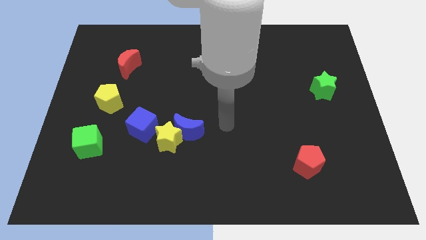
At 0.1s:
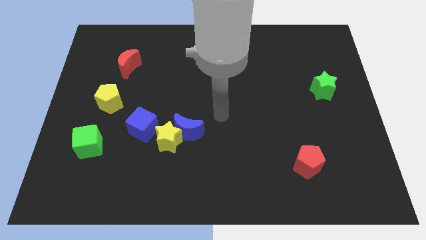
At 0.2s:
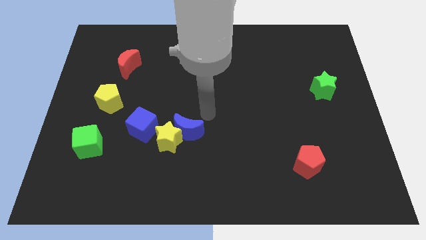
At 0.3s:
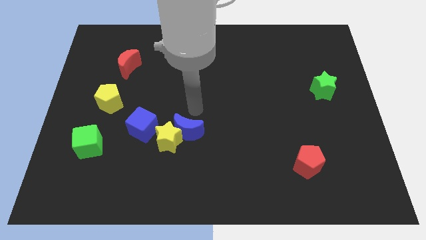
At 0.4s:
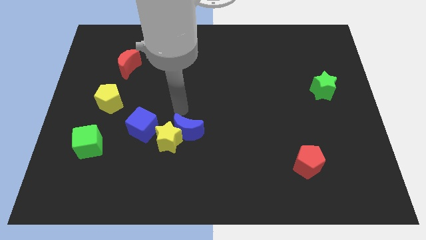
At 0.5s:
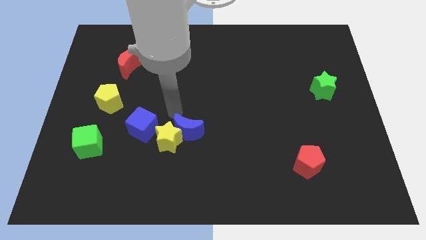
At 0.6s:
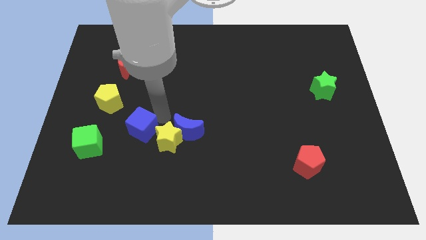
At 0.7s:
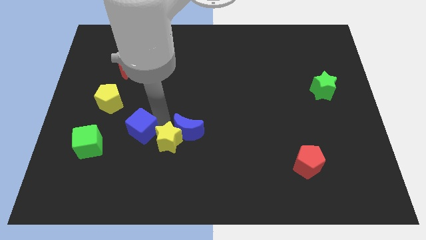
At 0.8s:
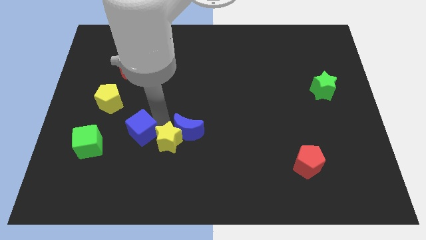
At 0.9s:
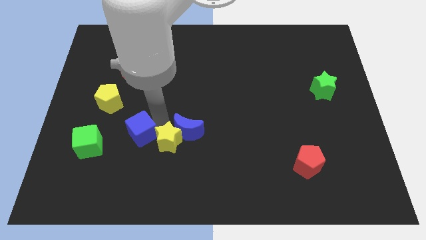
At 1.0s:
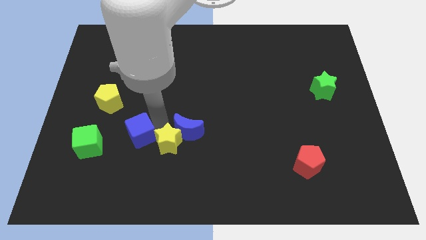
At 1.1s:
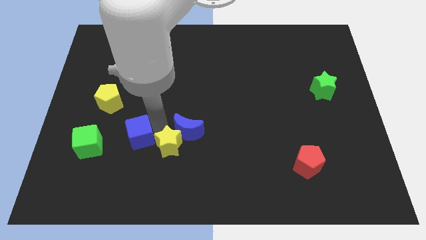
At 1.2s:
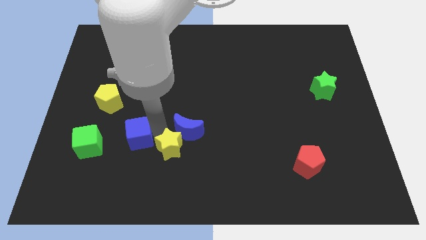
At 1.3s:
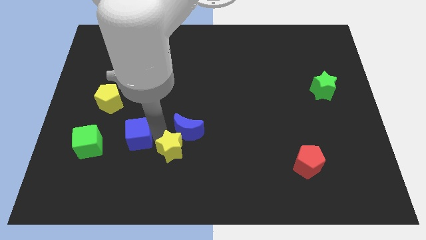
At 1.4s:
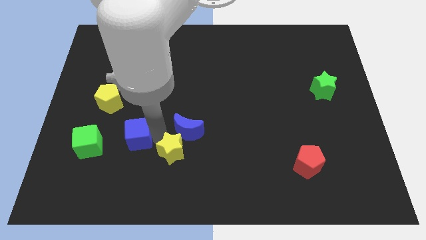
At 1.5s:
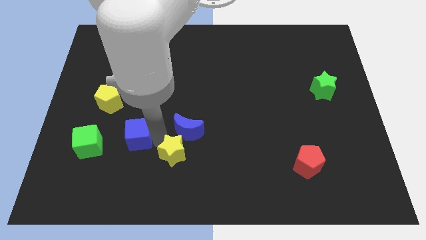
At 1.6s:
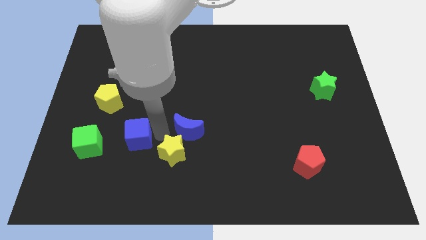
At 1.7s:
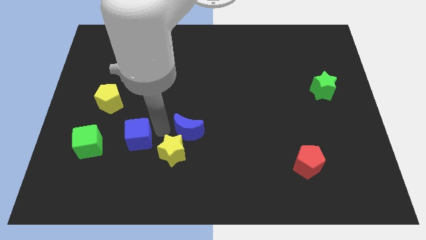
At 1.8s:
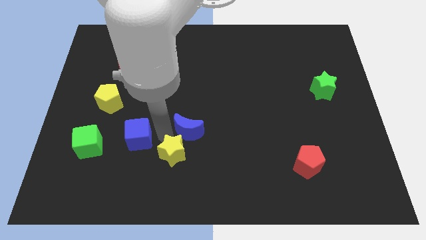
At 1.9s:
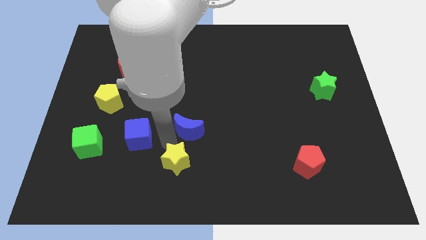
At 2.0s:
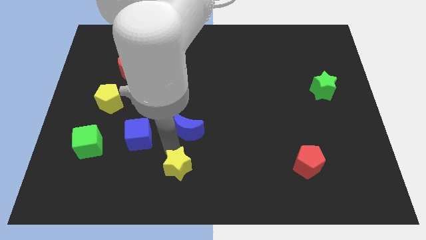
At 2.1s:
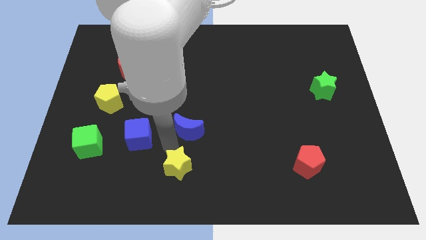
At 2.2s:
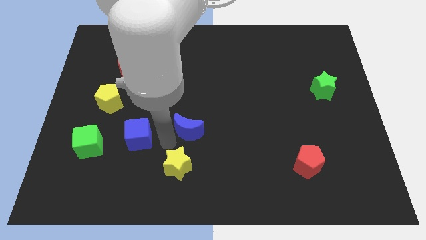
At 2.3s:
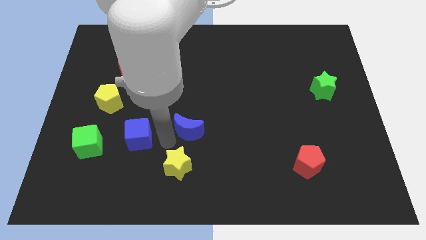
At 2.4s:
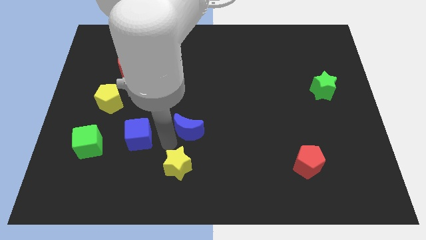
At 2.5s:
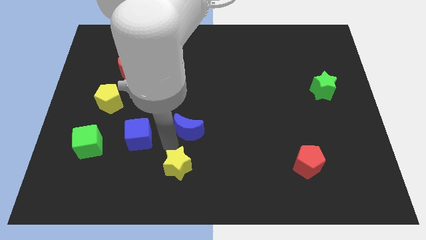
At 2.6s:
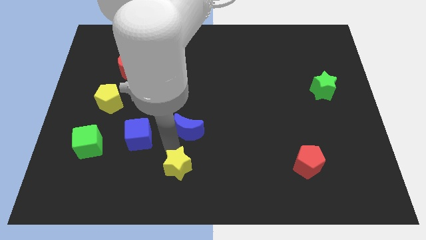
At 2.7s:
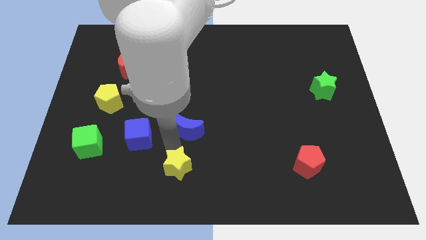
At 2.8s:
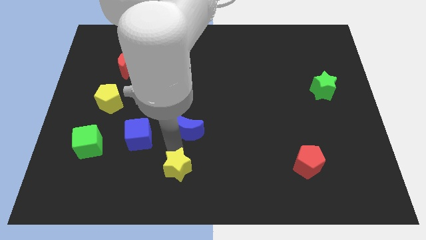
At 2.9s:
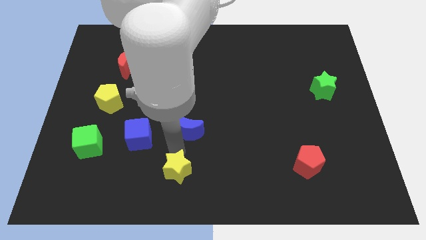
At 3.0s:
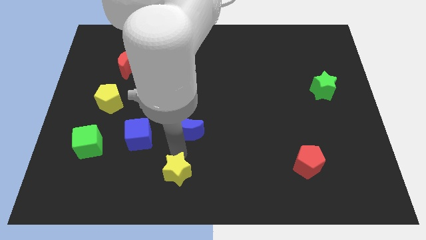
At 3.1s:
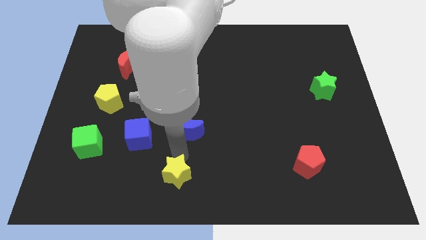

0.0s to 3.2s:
pull the yellow star apart from the blue moon and blue cube

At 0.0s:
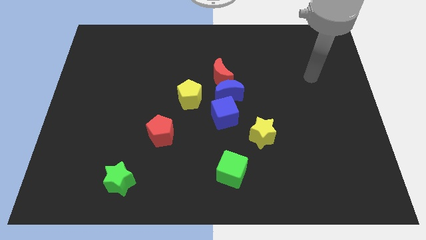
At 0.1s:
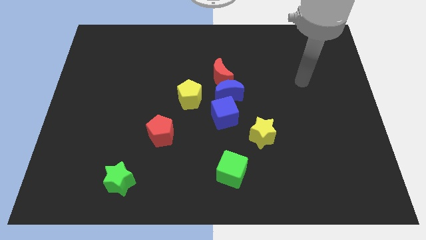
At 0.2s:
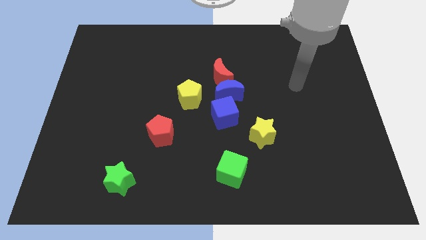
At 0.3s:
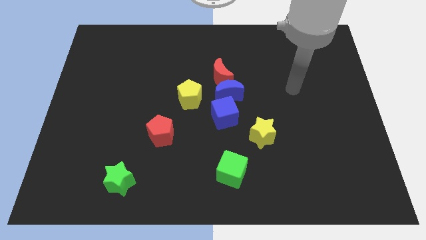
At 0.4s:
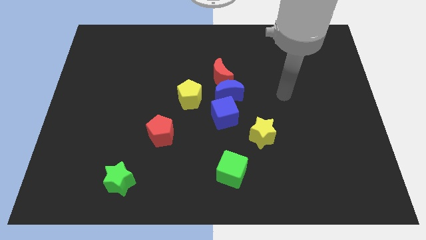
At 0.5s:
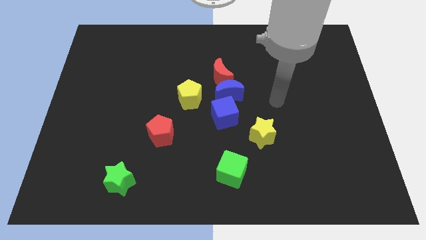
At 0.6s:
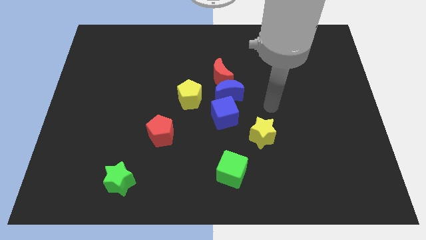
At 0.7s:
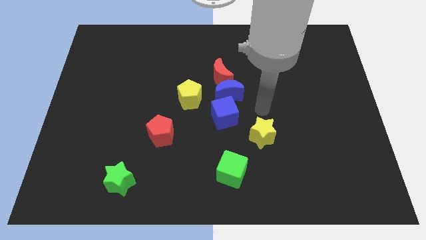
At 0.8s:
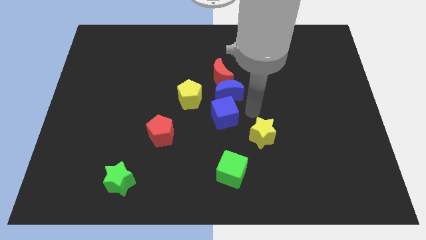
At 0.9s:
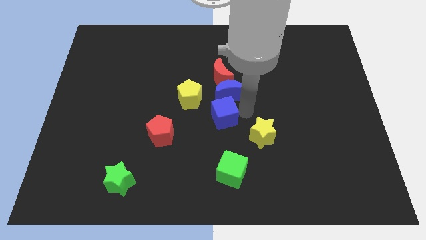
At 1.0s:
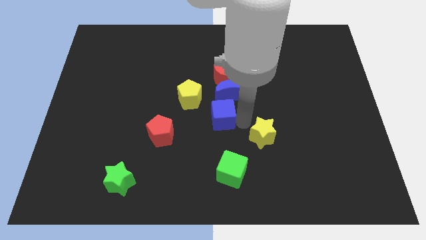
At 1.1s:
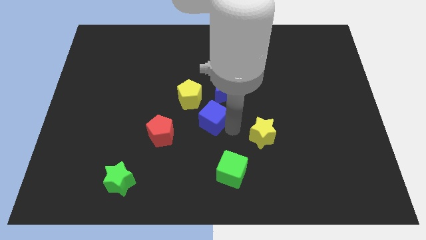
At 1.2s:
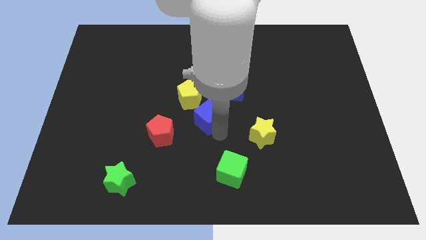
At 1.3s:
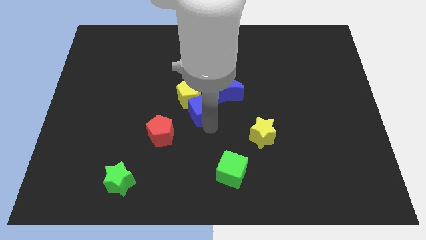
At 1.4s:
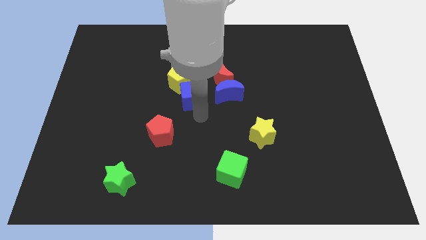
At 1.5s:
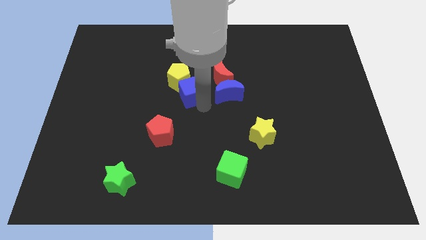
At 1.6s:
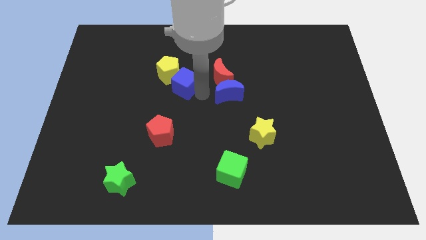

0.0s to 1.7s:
pull the blue moon apart from the clump

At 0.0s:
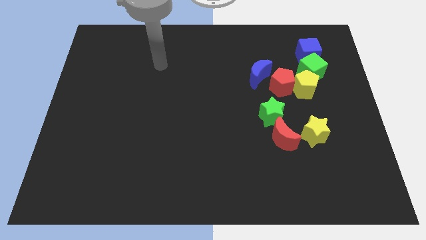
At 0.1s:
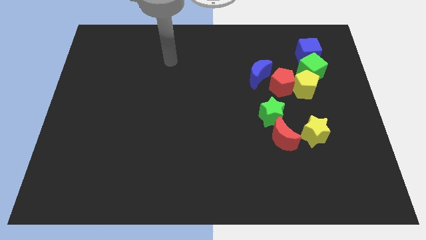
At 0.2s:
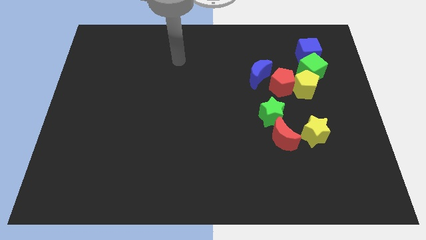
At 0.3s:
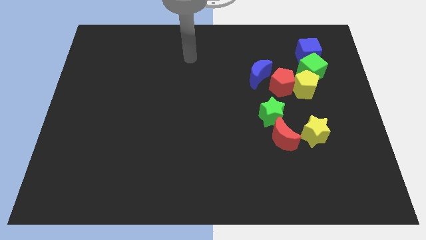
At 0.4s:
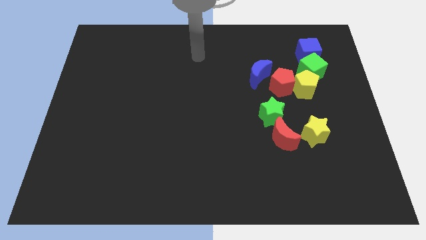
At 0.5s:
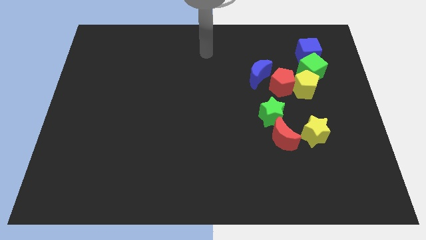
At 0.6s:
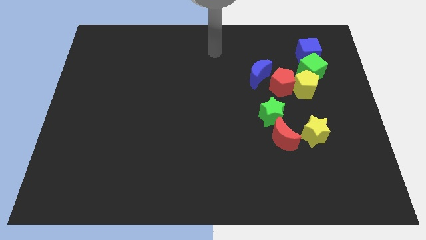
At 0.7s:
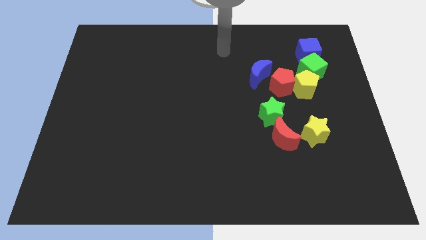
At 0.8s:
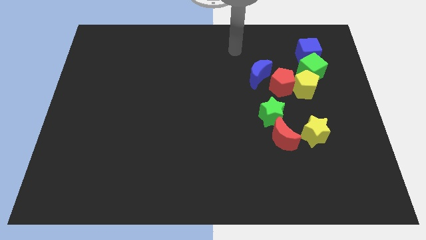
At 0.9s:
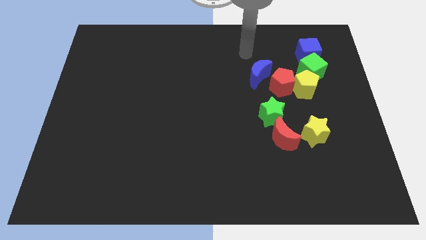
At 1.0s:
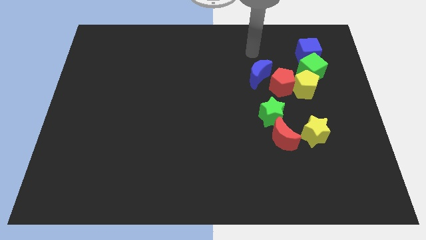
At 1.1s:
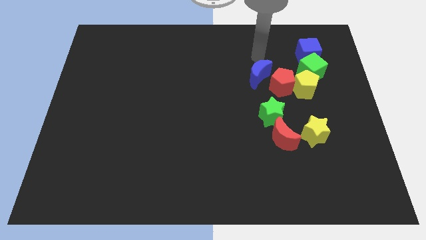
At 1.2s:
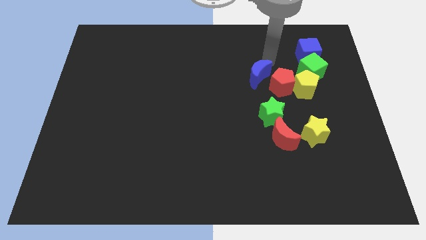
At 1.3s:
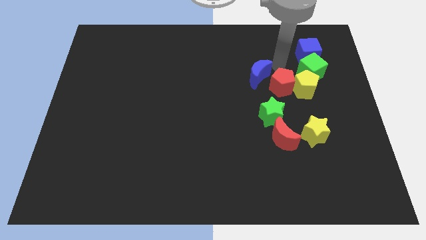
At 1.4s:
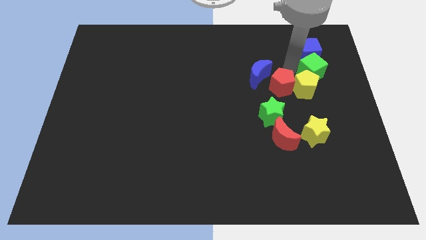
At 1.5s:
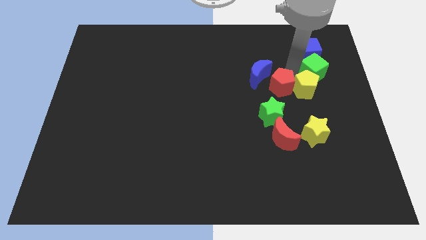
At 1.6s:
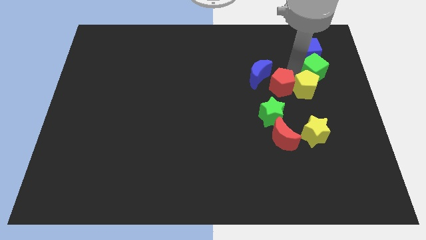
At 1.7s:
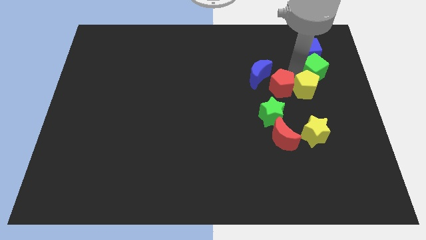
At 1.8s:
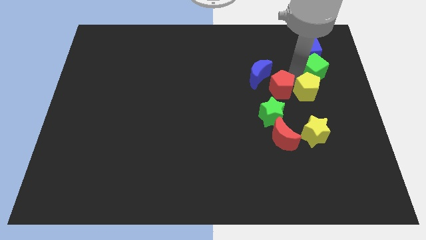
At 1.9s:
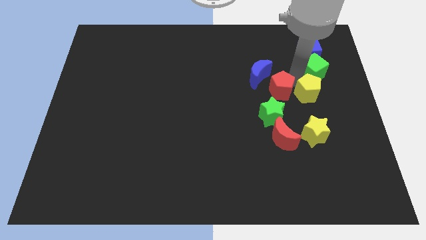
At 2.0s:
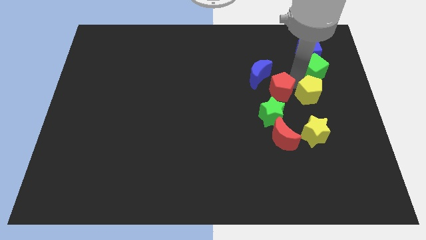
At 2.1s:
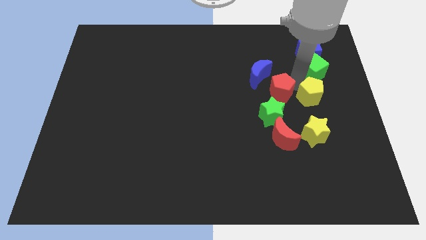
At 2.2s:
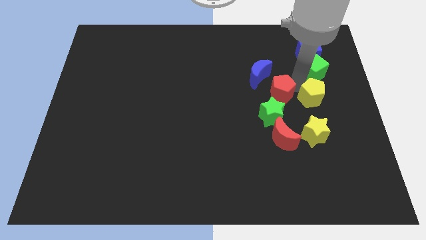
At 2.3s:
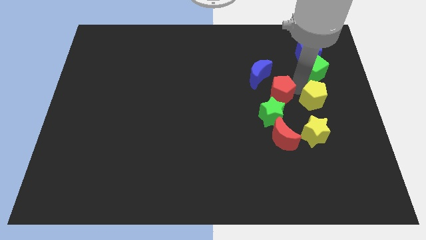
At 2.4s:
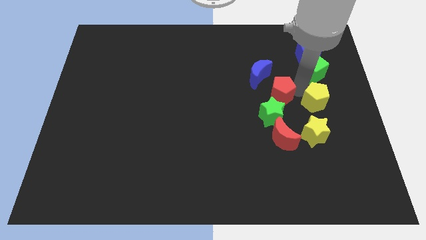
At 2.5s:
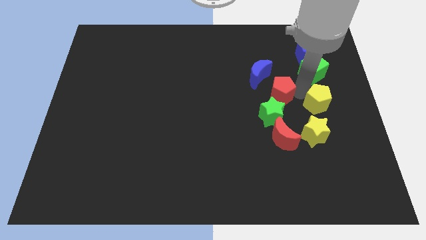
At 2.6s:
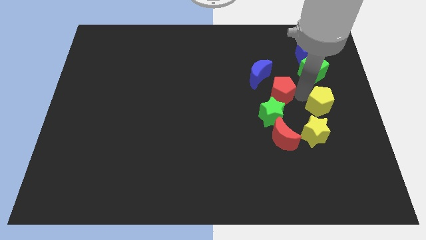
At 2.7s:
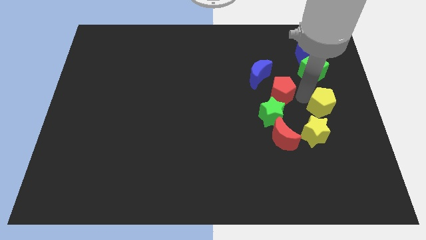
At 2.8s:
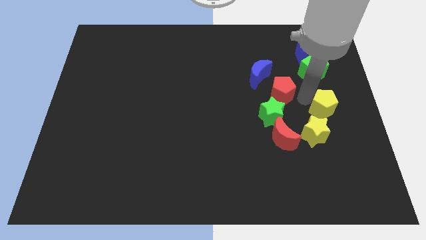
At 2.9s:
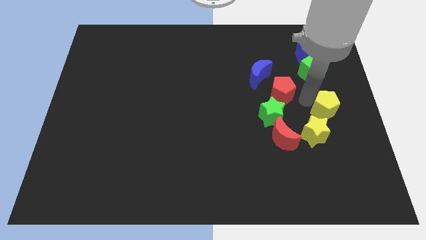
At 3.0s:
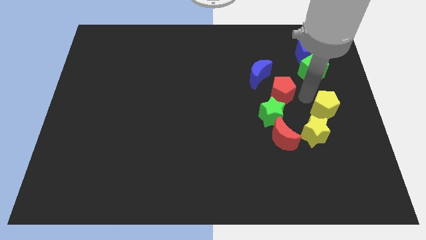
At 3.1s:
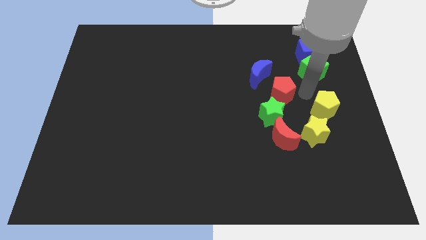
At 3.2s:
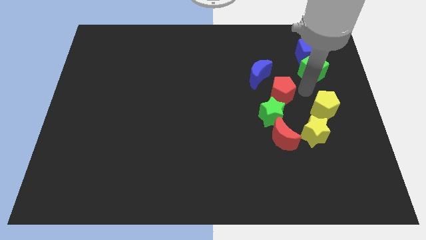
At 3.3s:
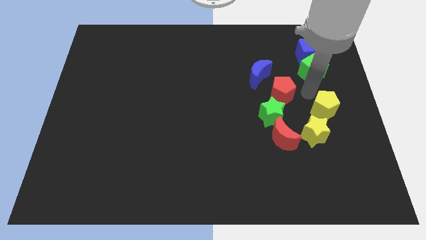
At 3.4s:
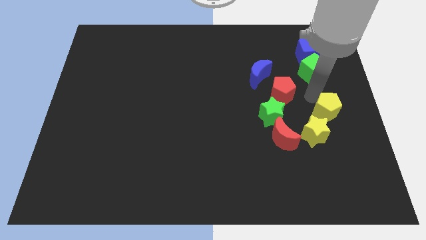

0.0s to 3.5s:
move the yellow pentagon away from the red pentagon and green cube

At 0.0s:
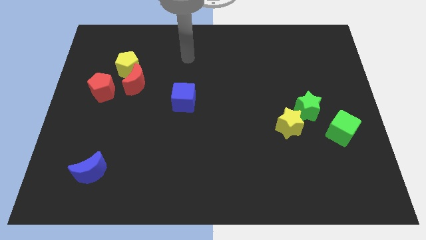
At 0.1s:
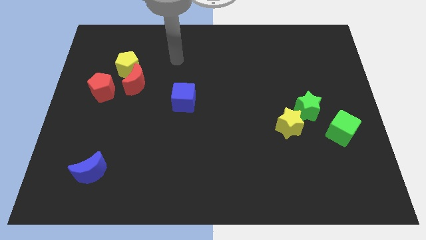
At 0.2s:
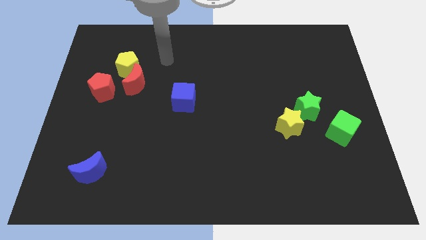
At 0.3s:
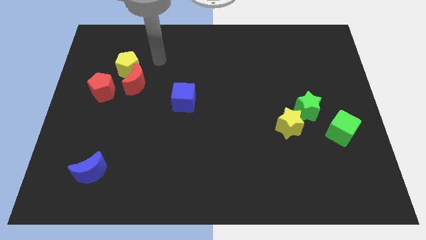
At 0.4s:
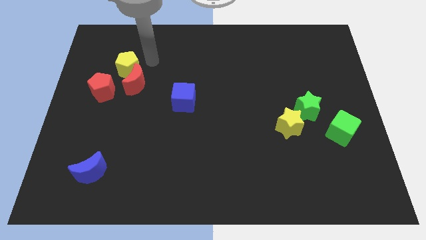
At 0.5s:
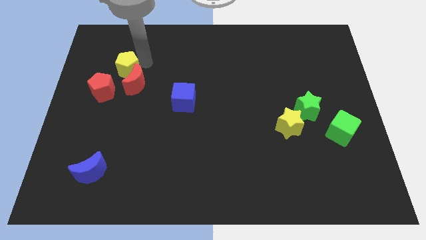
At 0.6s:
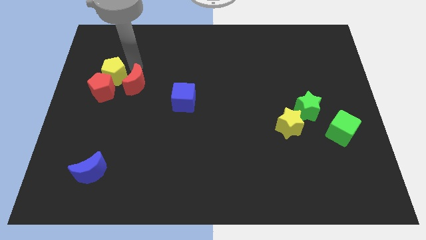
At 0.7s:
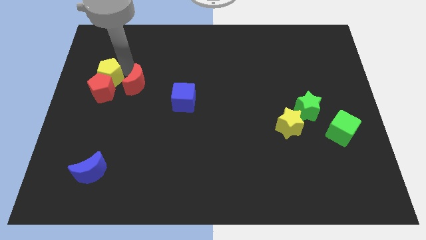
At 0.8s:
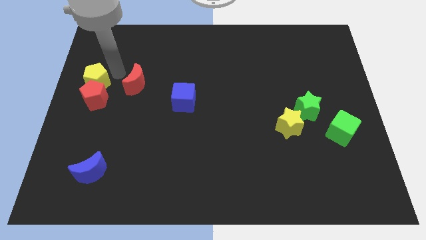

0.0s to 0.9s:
pull the red moon apart from the yellow pentagon and red pentagon
